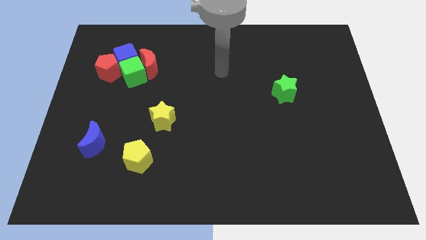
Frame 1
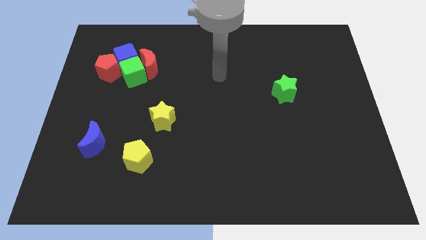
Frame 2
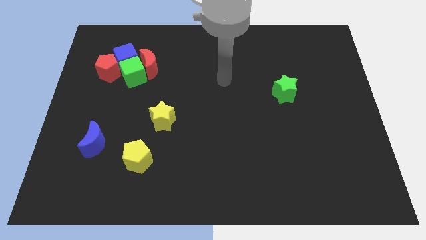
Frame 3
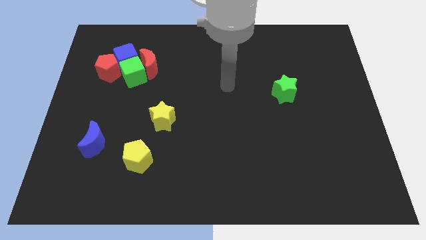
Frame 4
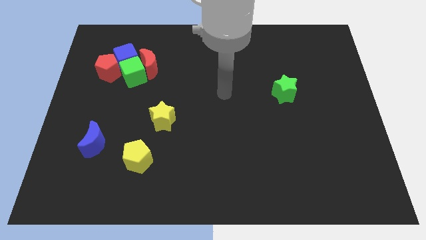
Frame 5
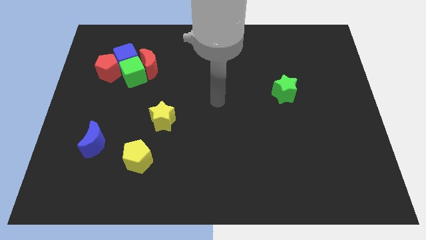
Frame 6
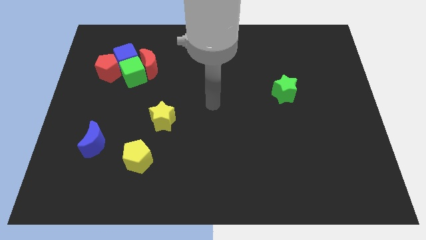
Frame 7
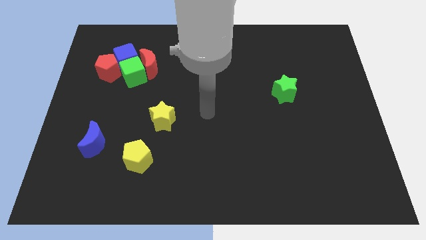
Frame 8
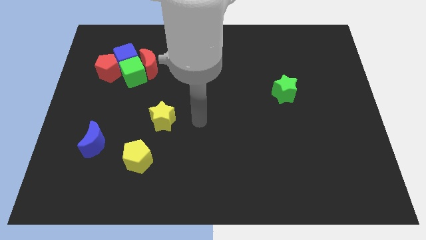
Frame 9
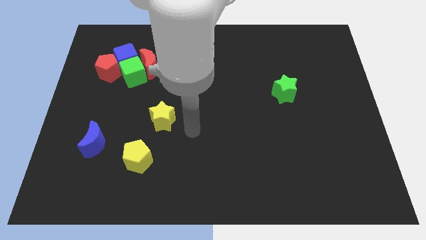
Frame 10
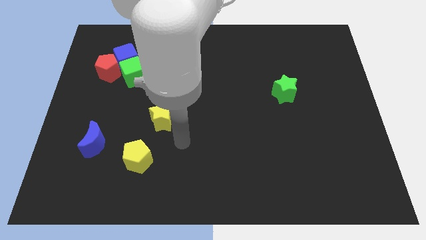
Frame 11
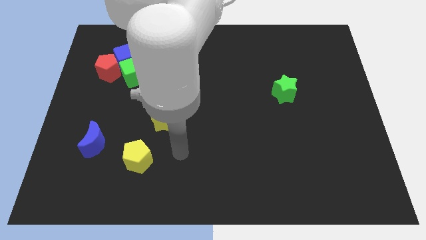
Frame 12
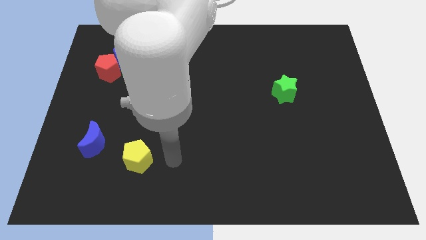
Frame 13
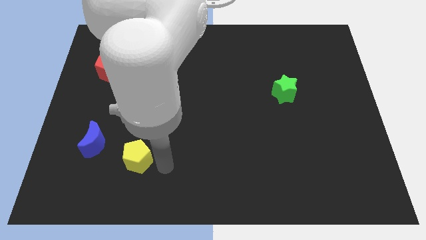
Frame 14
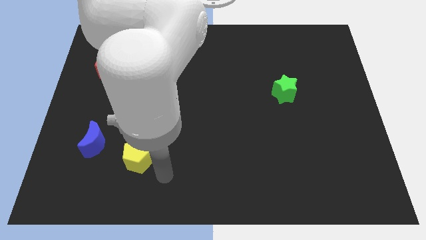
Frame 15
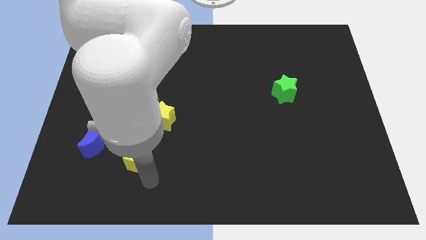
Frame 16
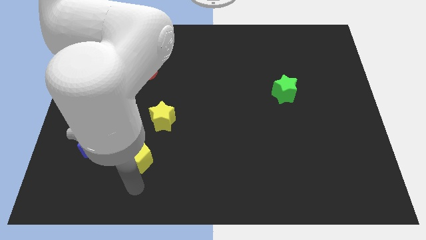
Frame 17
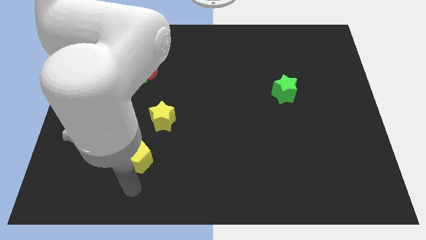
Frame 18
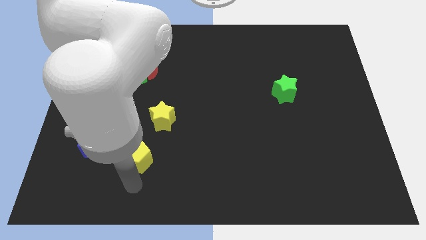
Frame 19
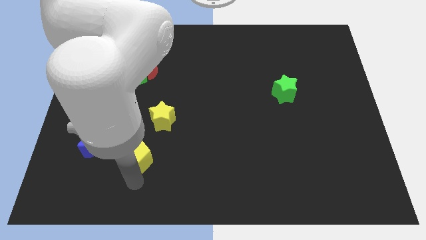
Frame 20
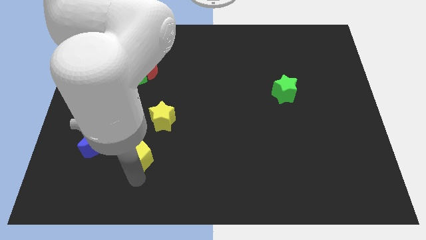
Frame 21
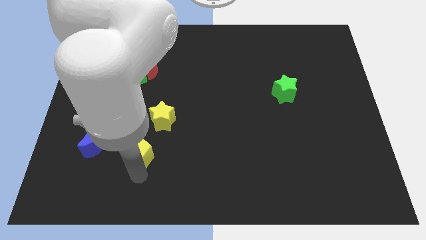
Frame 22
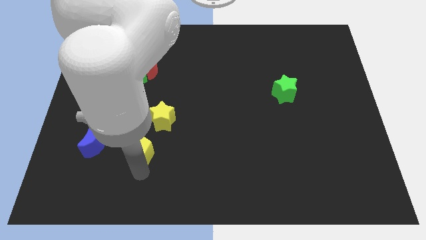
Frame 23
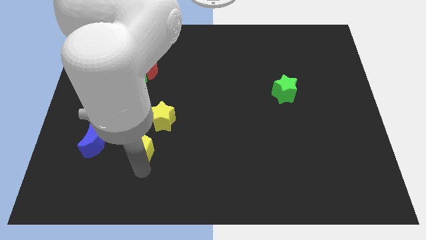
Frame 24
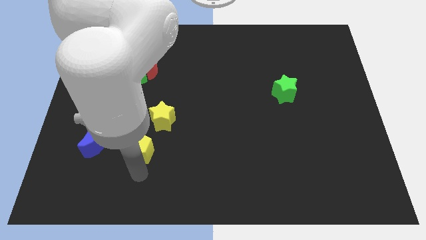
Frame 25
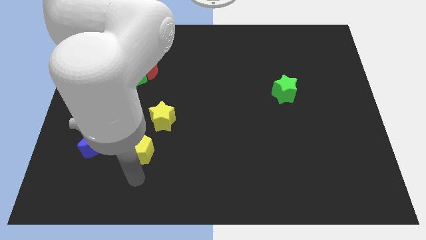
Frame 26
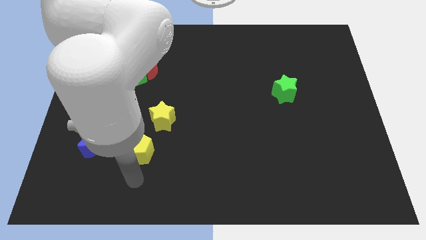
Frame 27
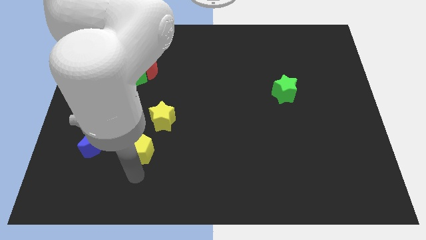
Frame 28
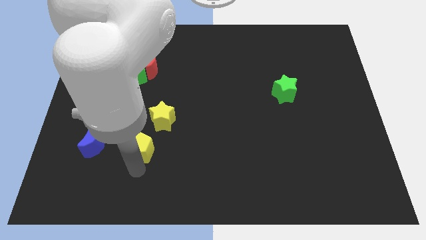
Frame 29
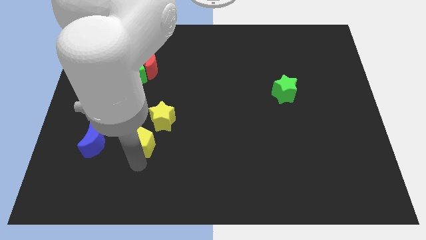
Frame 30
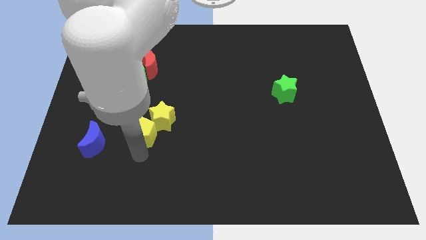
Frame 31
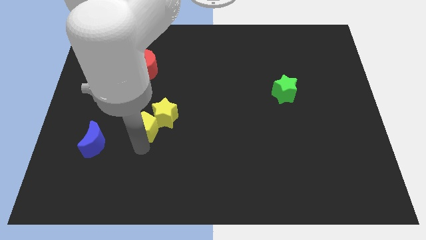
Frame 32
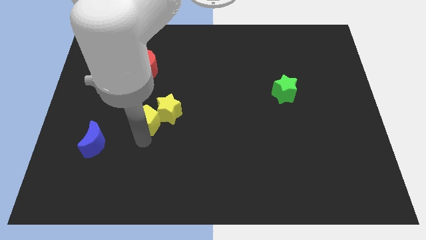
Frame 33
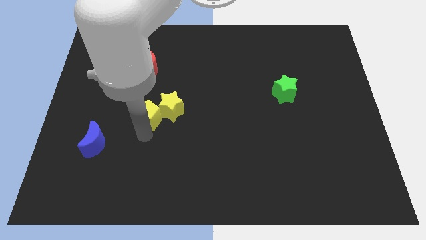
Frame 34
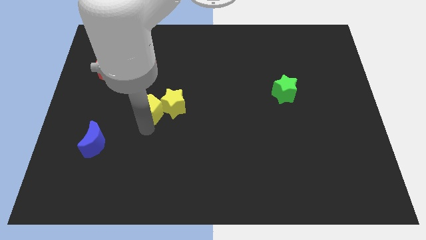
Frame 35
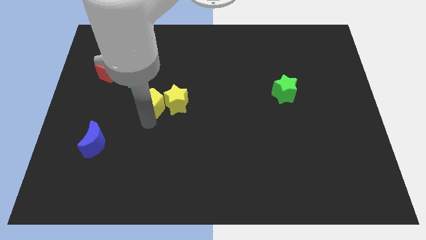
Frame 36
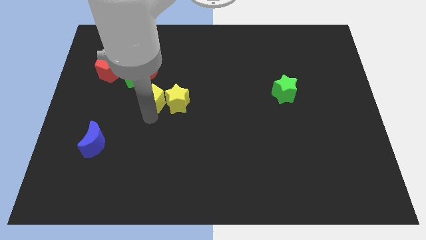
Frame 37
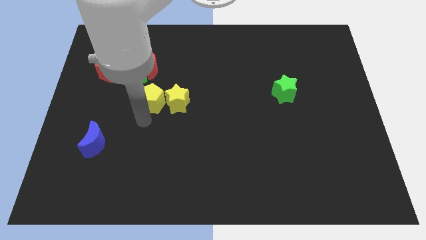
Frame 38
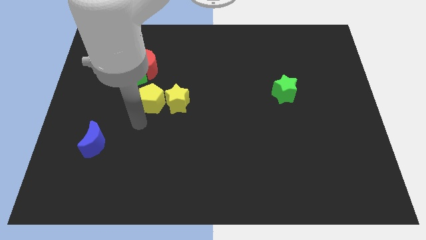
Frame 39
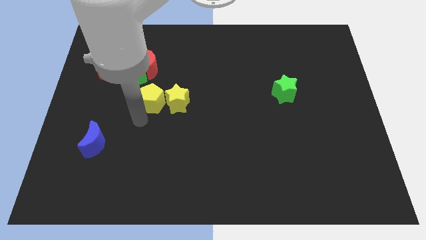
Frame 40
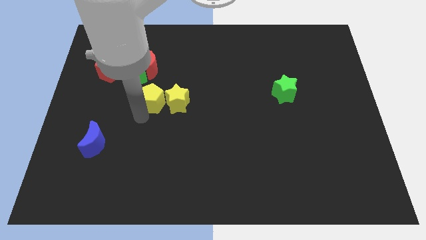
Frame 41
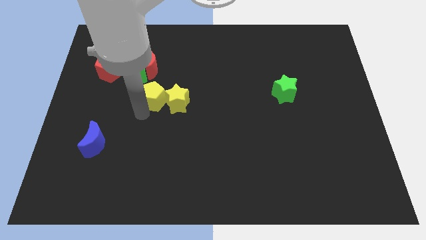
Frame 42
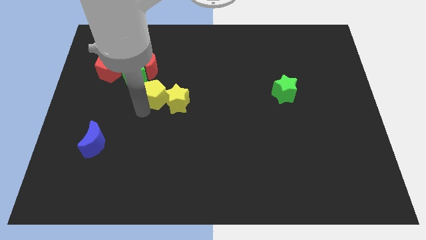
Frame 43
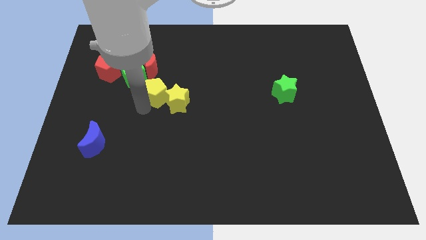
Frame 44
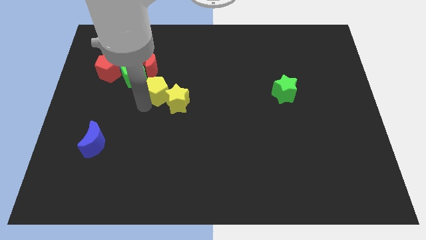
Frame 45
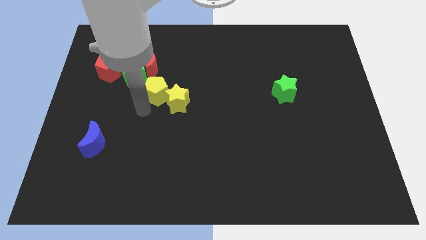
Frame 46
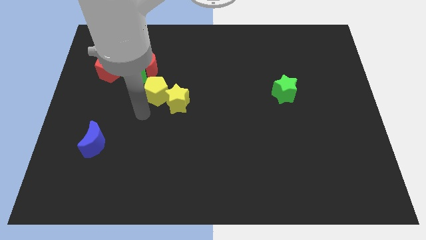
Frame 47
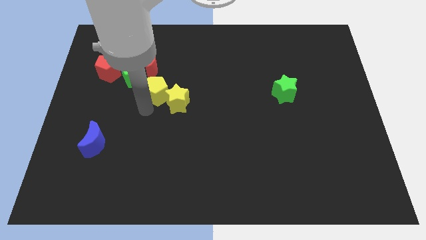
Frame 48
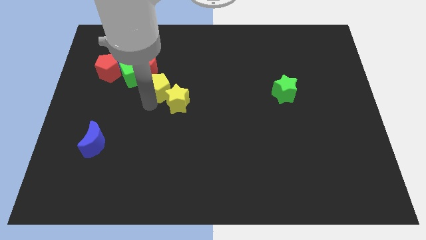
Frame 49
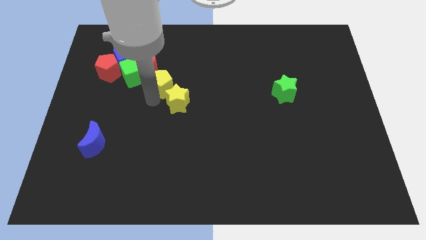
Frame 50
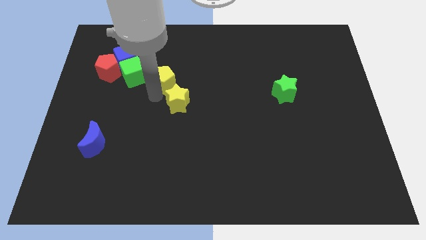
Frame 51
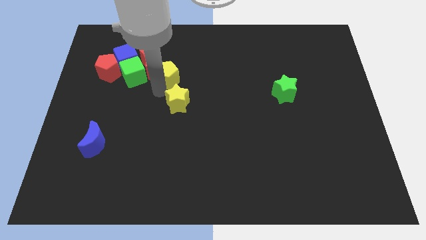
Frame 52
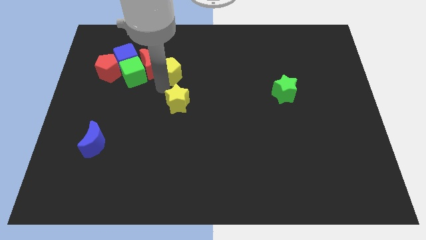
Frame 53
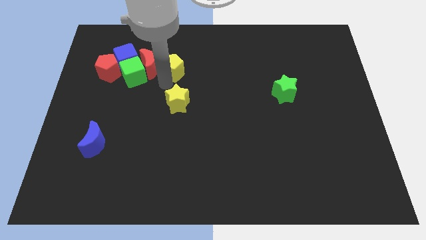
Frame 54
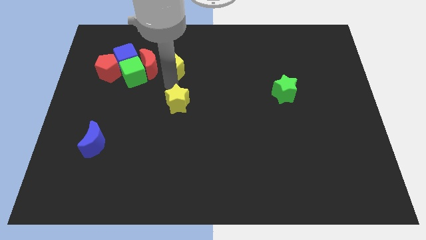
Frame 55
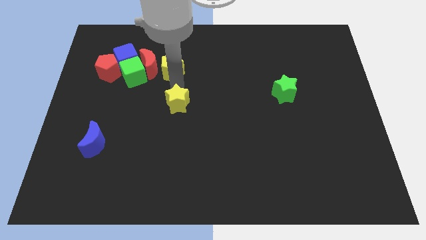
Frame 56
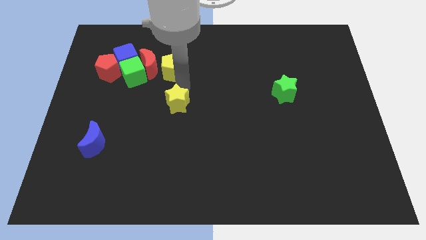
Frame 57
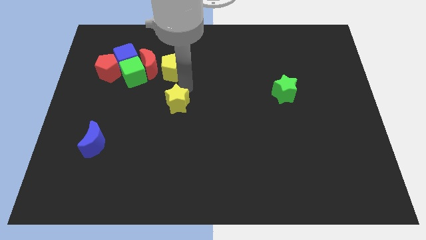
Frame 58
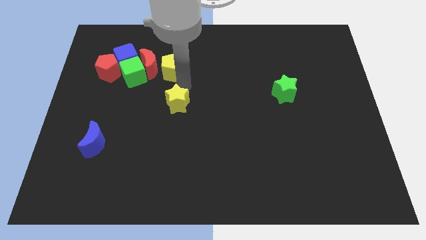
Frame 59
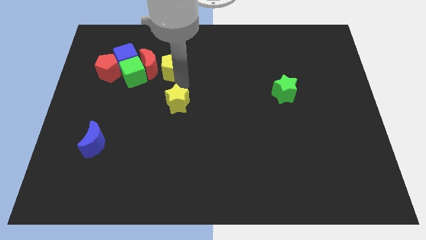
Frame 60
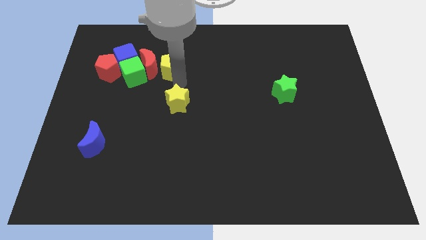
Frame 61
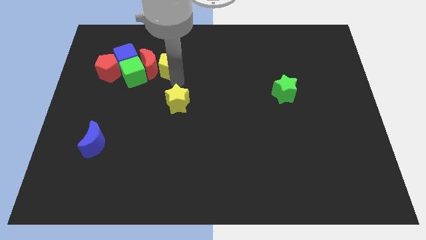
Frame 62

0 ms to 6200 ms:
move the yellow pentagon to the top right of the green cube
